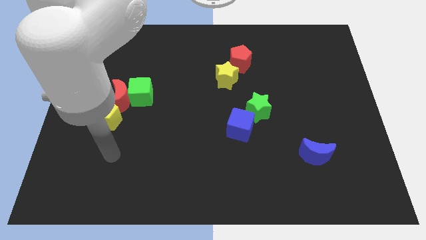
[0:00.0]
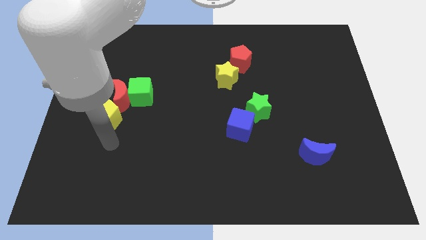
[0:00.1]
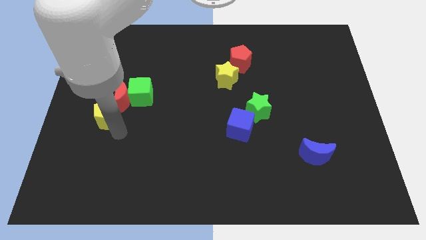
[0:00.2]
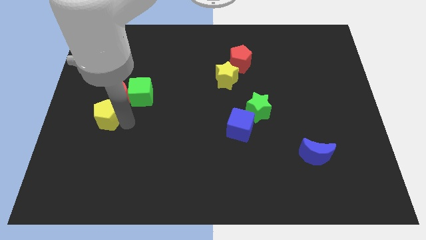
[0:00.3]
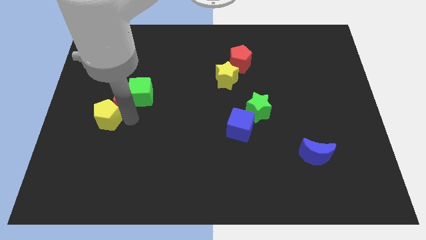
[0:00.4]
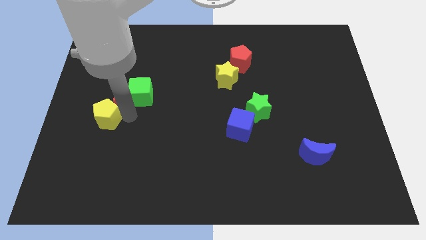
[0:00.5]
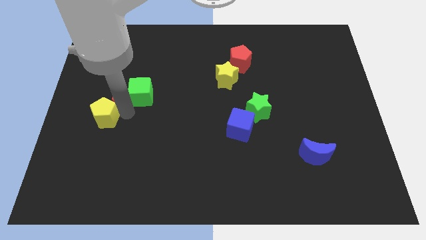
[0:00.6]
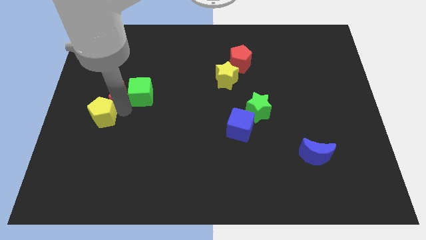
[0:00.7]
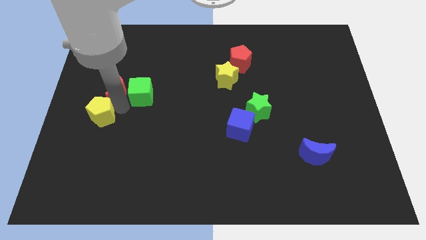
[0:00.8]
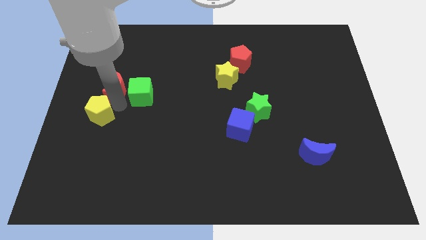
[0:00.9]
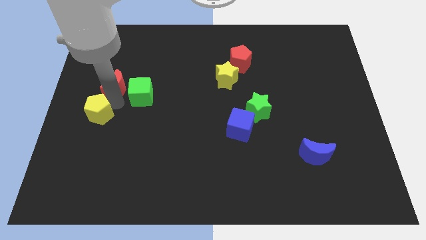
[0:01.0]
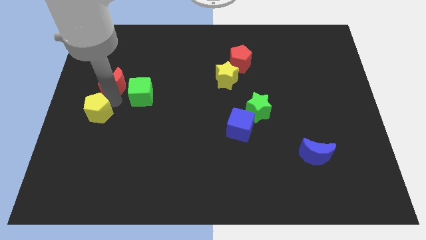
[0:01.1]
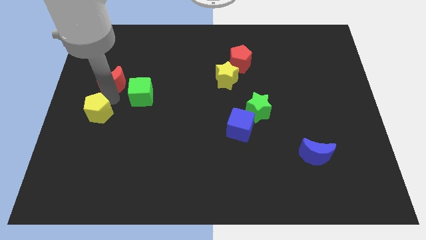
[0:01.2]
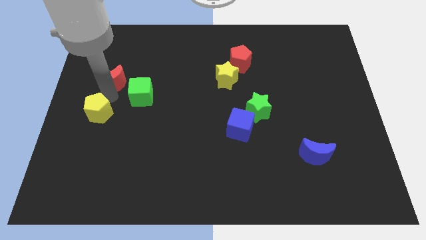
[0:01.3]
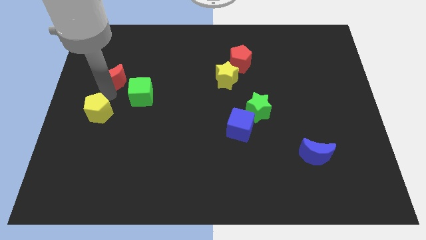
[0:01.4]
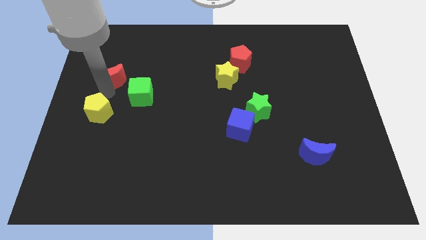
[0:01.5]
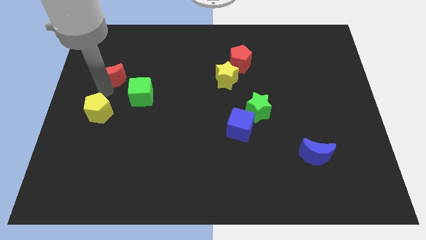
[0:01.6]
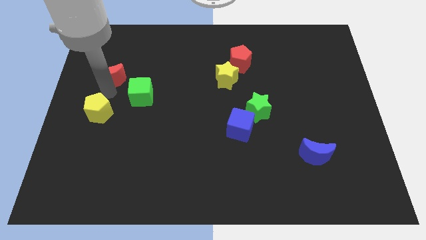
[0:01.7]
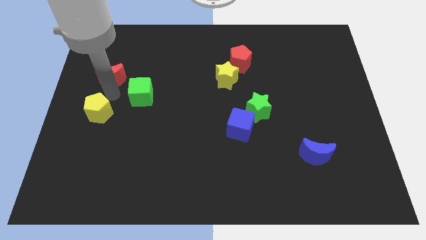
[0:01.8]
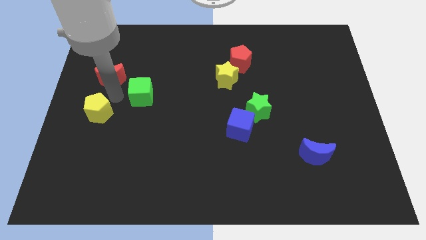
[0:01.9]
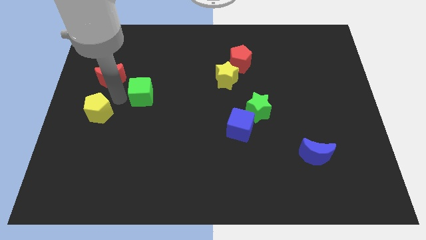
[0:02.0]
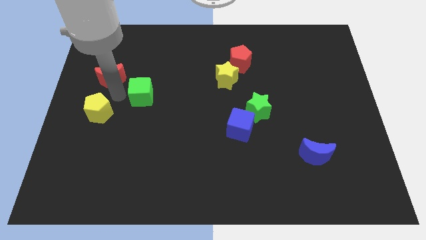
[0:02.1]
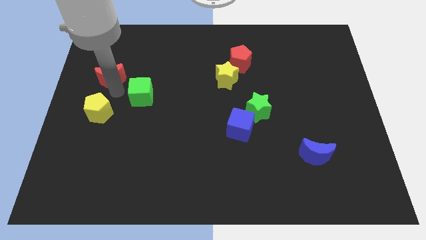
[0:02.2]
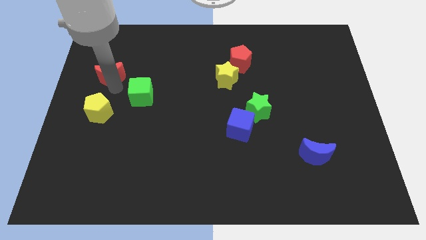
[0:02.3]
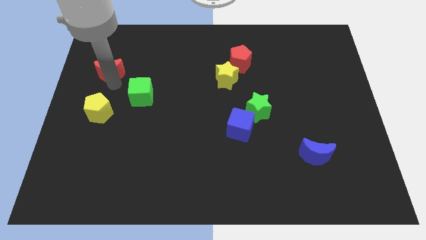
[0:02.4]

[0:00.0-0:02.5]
pull the red moon apart from the green cube and yellow pentagon

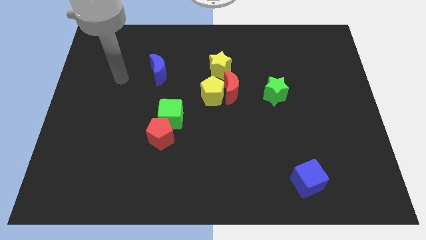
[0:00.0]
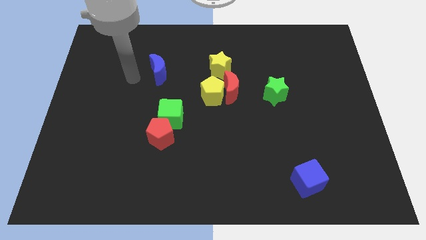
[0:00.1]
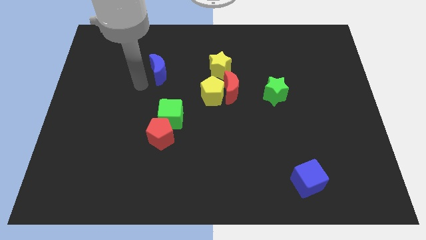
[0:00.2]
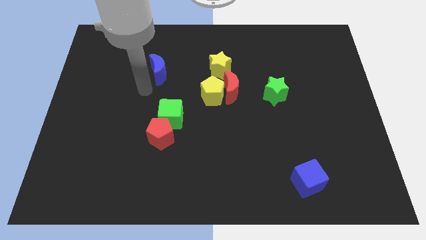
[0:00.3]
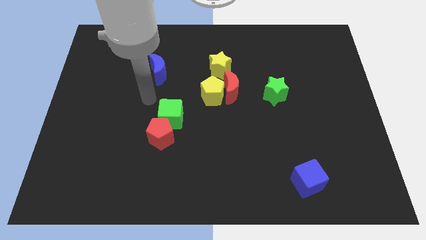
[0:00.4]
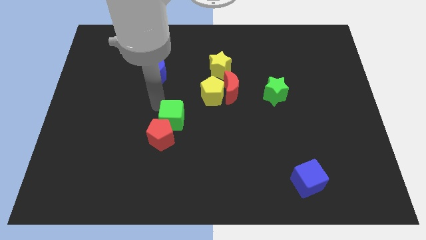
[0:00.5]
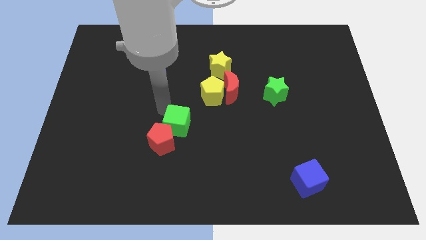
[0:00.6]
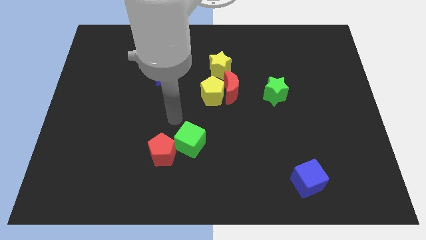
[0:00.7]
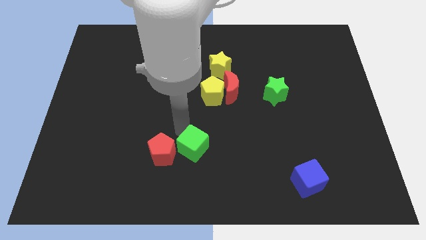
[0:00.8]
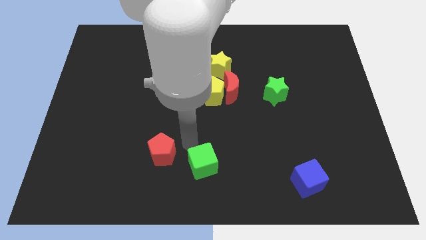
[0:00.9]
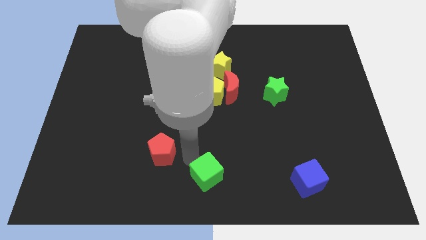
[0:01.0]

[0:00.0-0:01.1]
pull the red pentagon apart from the green cube

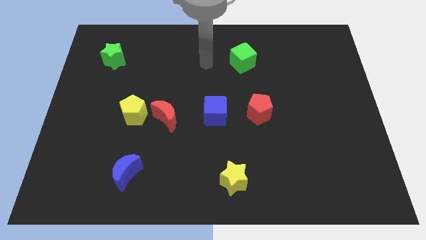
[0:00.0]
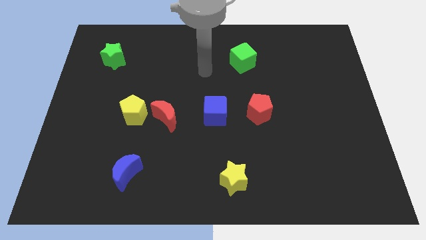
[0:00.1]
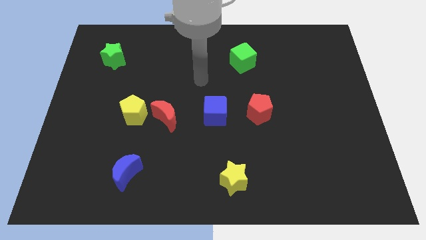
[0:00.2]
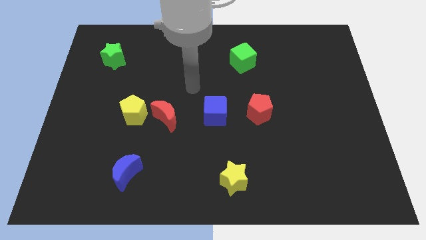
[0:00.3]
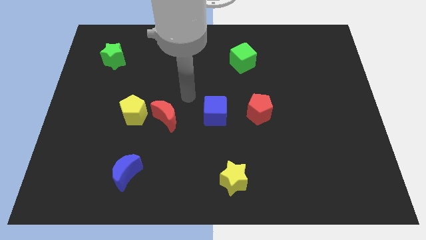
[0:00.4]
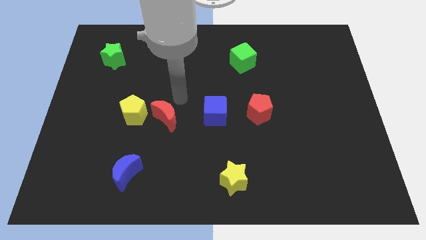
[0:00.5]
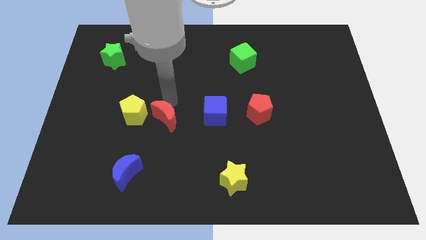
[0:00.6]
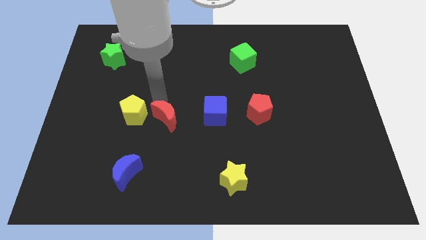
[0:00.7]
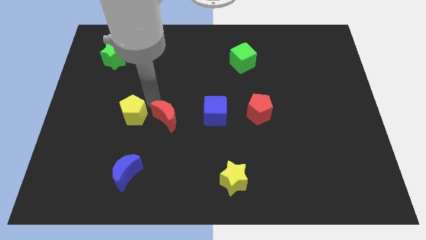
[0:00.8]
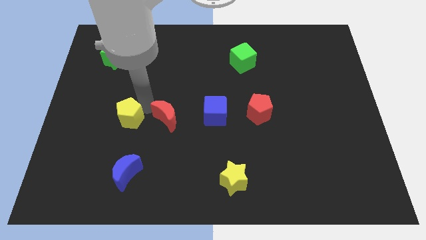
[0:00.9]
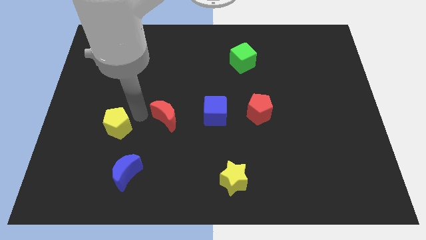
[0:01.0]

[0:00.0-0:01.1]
pull the red moon apart from the yellow pentagon

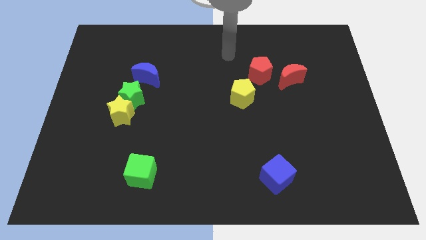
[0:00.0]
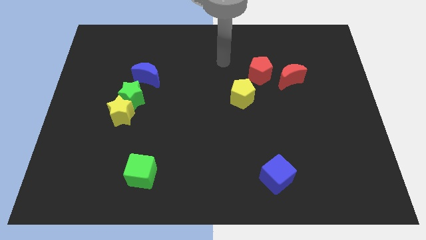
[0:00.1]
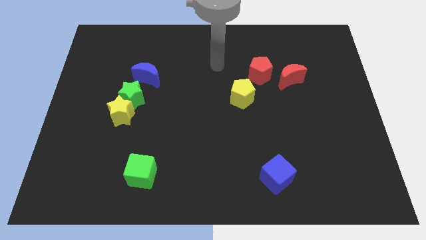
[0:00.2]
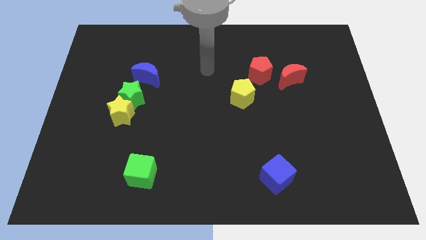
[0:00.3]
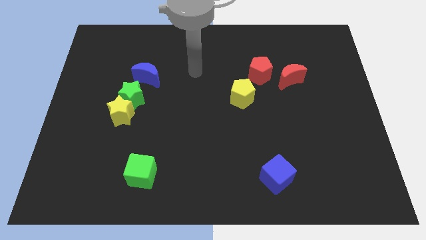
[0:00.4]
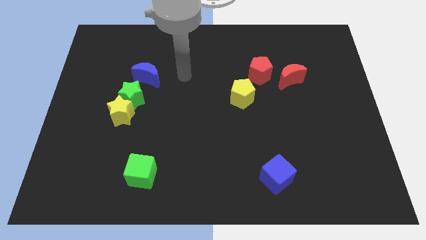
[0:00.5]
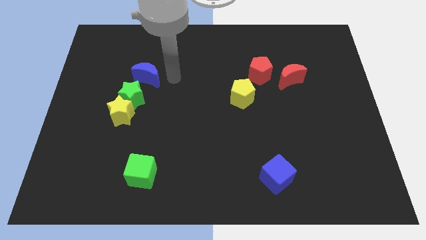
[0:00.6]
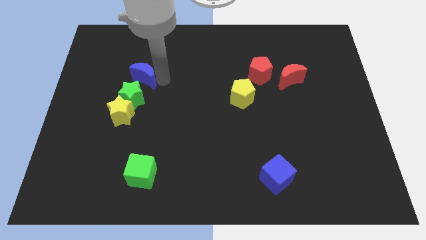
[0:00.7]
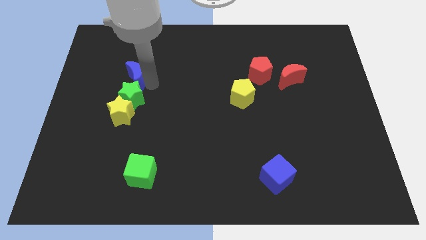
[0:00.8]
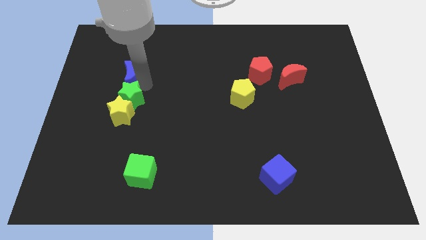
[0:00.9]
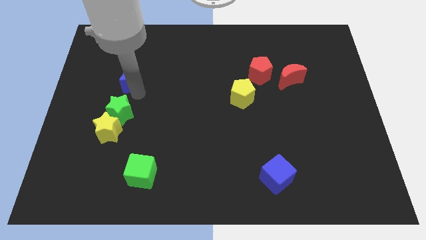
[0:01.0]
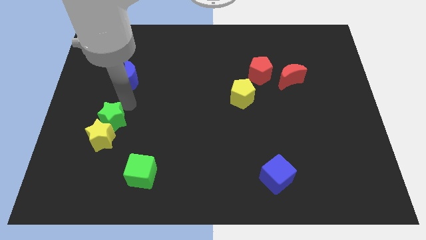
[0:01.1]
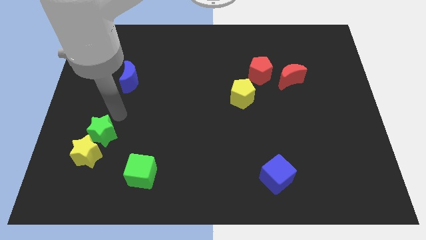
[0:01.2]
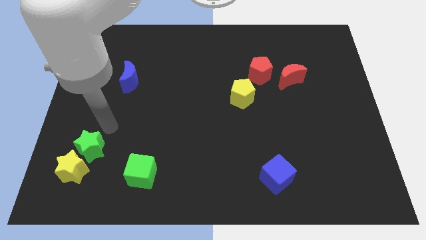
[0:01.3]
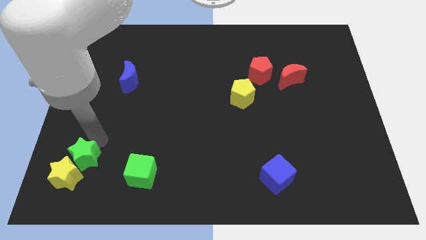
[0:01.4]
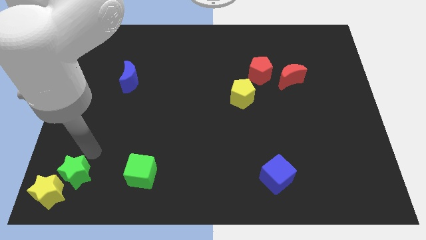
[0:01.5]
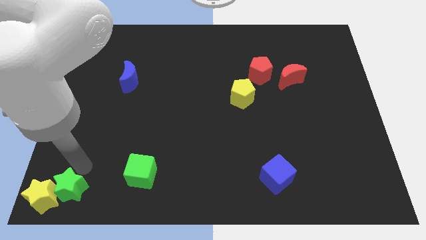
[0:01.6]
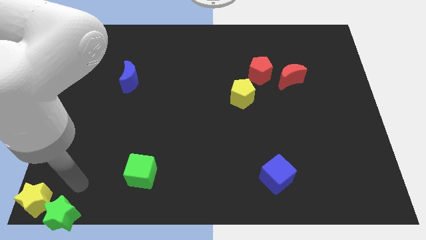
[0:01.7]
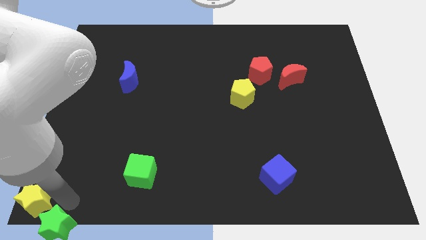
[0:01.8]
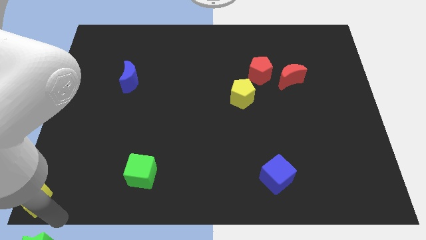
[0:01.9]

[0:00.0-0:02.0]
pull the yellow star apart from the green star

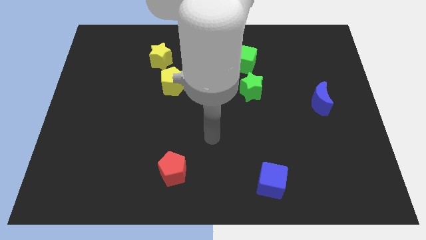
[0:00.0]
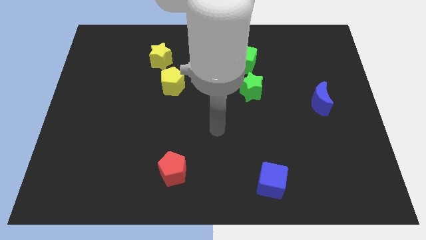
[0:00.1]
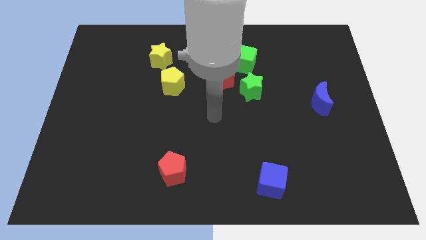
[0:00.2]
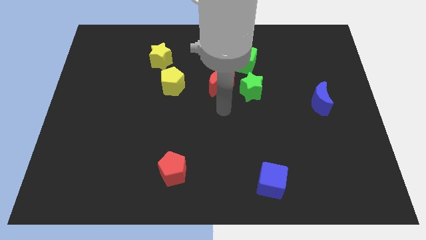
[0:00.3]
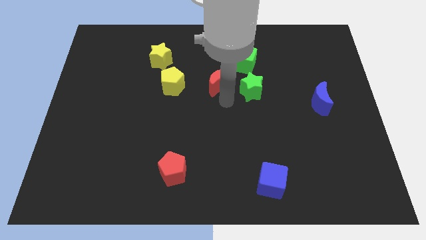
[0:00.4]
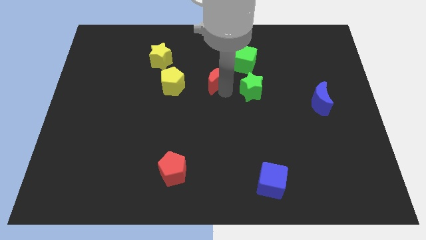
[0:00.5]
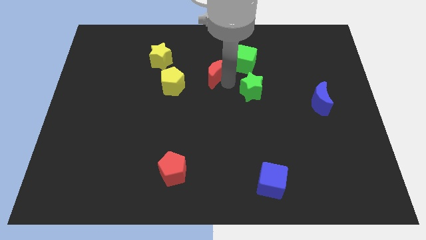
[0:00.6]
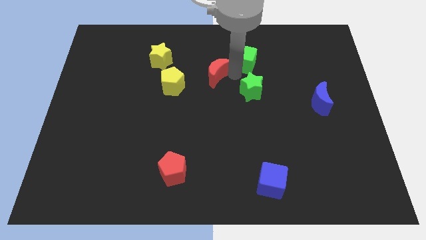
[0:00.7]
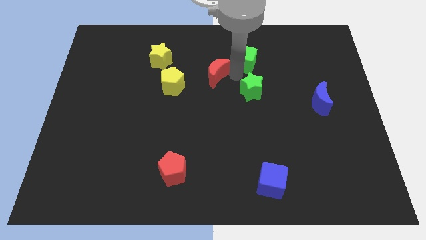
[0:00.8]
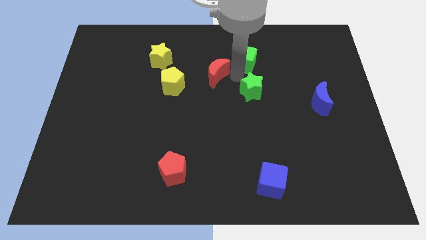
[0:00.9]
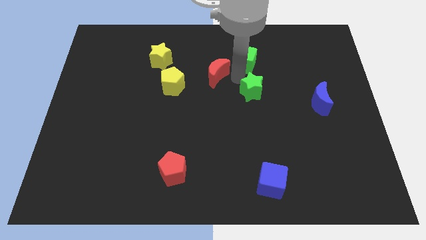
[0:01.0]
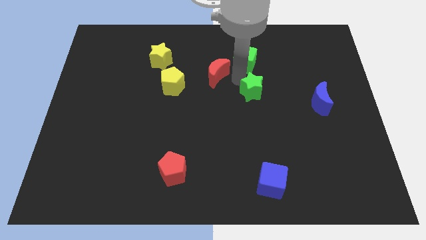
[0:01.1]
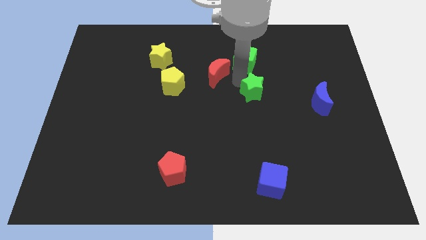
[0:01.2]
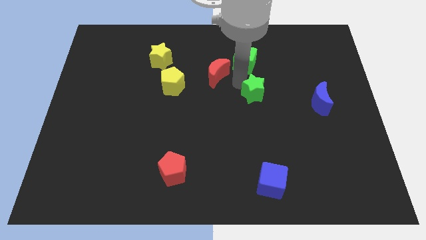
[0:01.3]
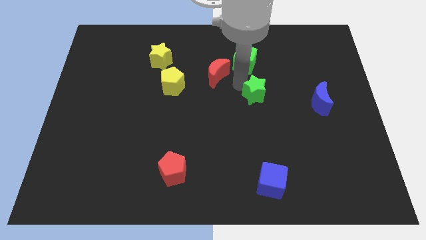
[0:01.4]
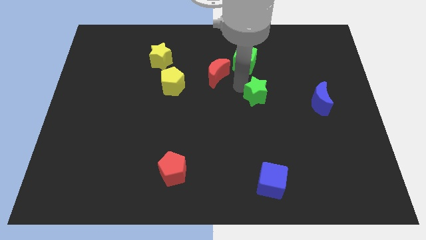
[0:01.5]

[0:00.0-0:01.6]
move the green star away from the red moon and green cube

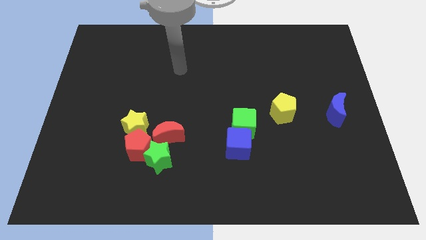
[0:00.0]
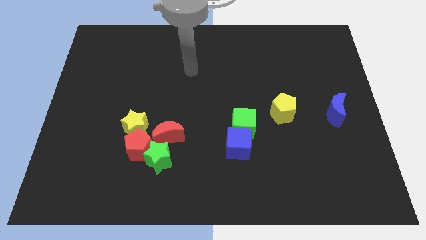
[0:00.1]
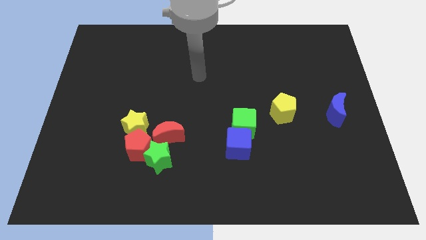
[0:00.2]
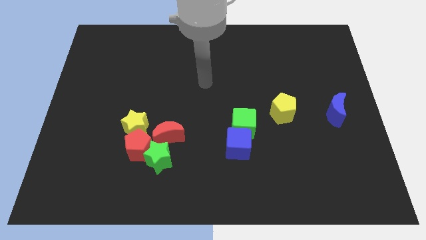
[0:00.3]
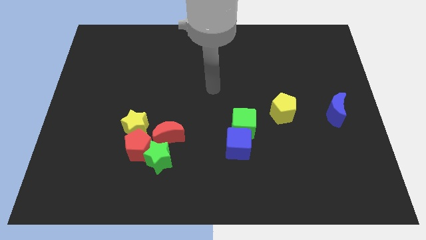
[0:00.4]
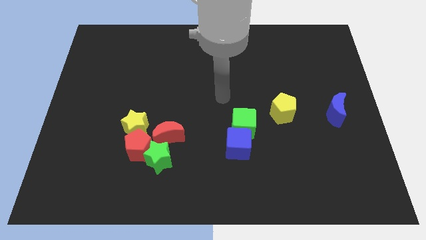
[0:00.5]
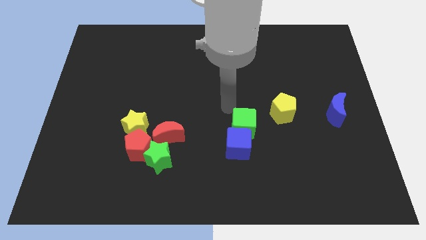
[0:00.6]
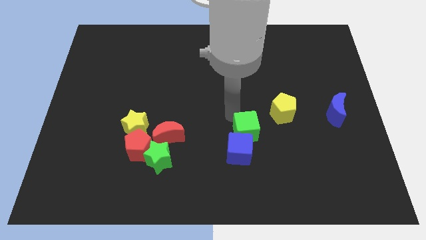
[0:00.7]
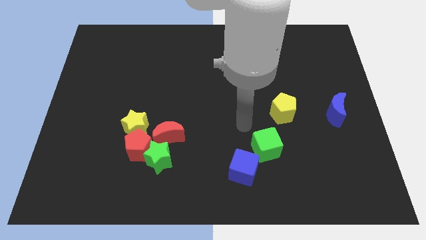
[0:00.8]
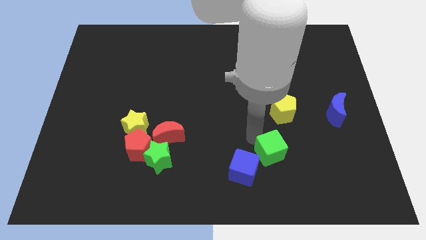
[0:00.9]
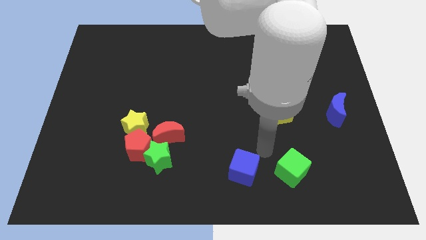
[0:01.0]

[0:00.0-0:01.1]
pull the blue cube apart from the green cube
